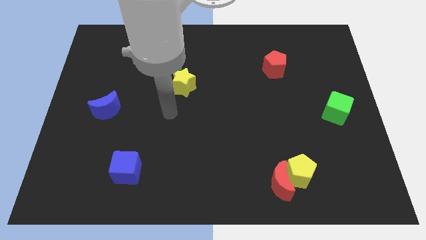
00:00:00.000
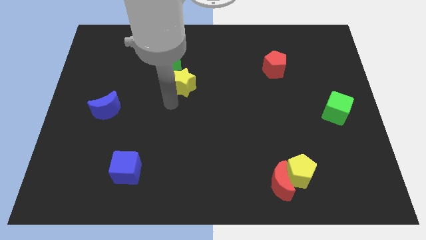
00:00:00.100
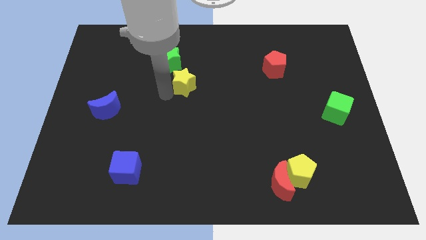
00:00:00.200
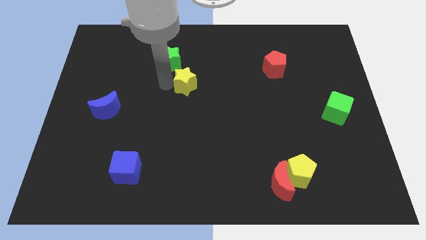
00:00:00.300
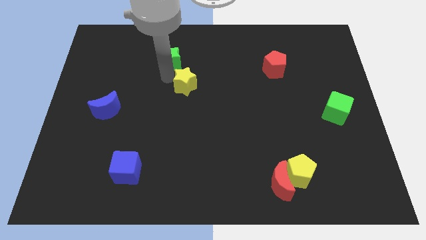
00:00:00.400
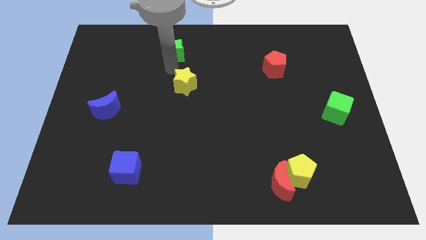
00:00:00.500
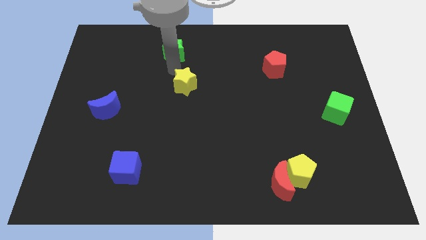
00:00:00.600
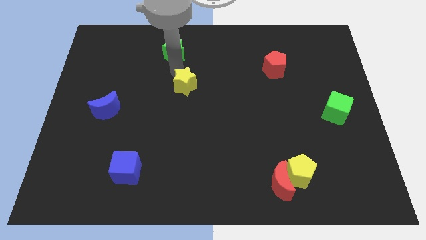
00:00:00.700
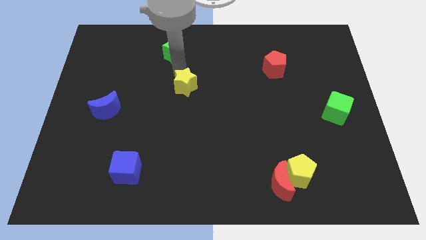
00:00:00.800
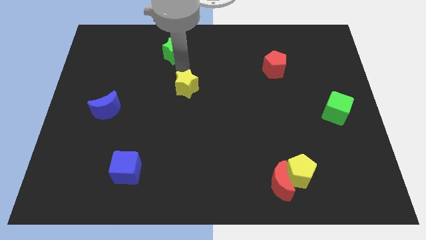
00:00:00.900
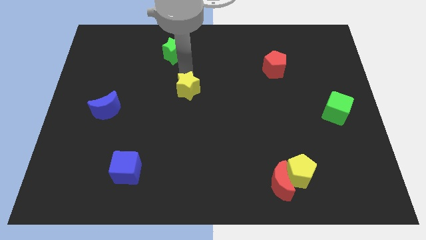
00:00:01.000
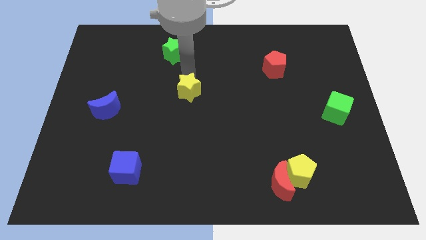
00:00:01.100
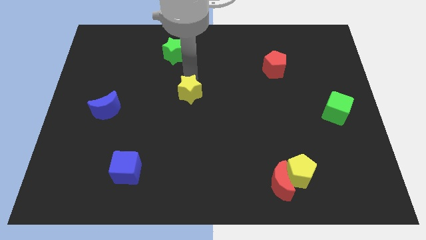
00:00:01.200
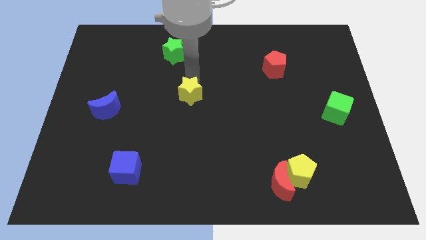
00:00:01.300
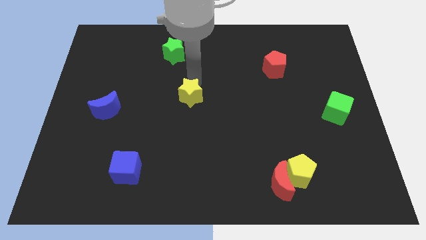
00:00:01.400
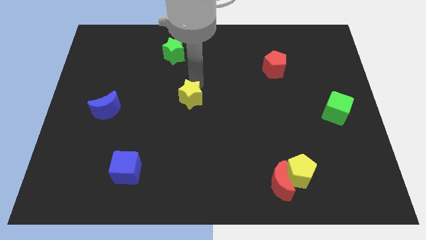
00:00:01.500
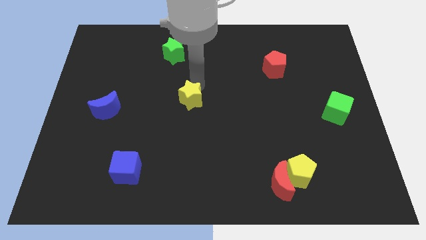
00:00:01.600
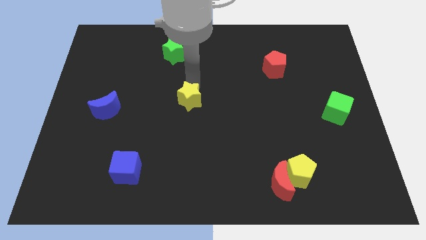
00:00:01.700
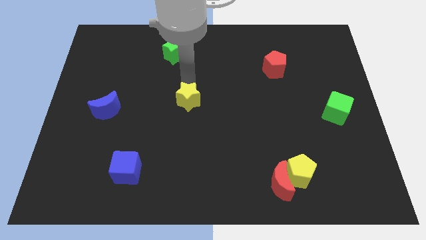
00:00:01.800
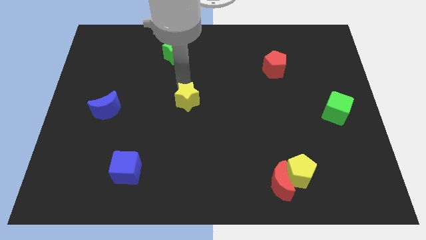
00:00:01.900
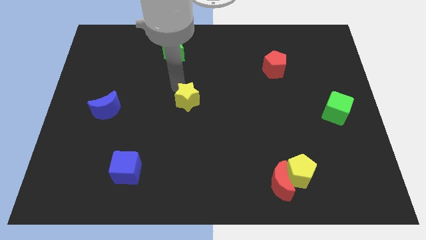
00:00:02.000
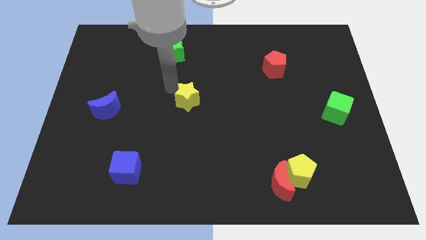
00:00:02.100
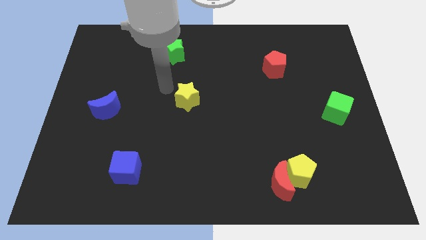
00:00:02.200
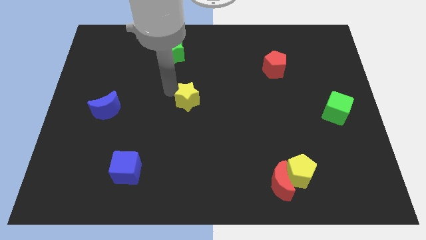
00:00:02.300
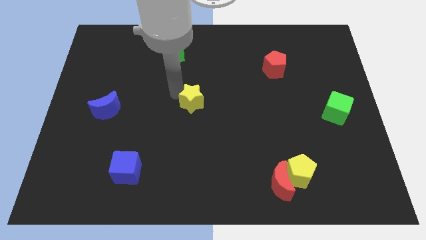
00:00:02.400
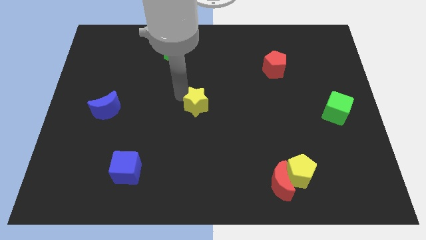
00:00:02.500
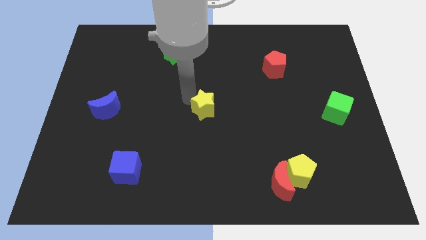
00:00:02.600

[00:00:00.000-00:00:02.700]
slightly slide the yellow star down and right diagonally

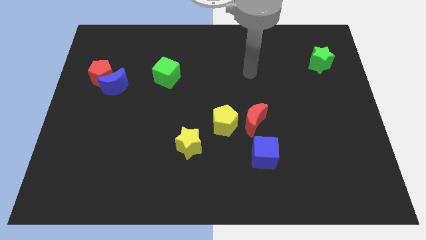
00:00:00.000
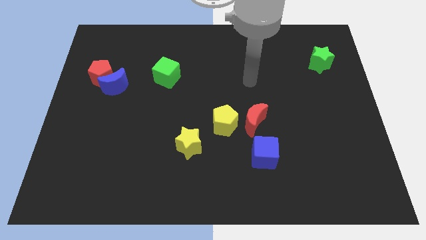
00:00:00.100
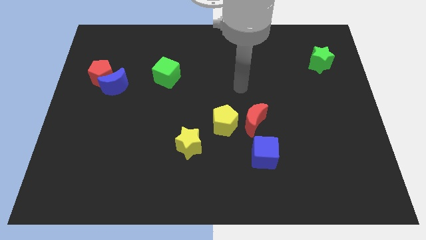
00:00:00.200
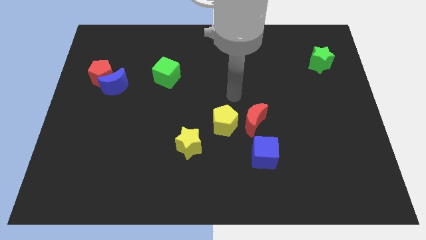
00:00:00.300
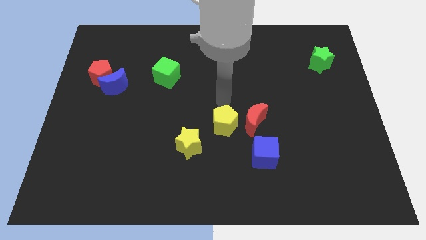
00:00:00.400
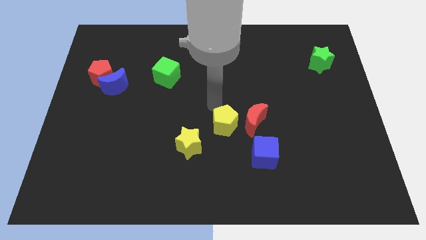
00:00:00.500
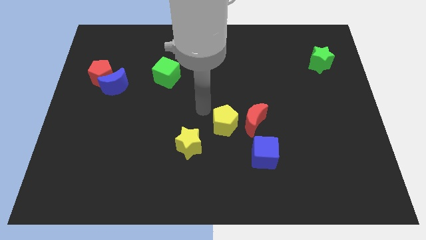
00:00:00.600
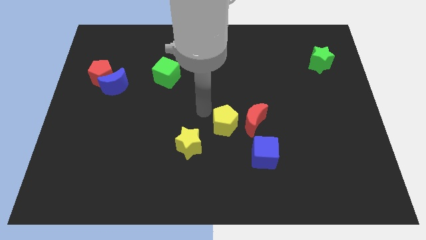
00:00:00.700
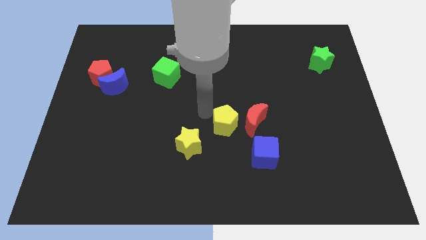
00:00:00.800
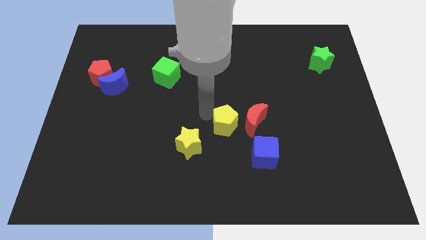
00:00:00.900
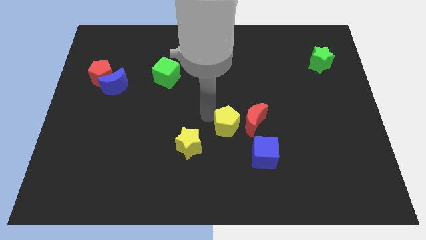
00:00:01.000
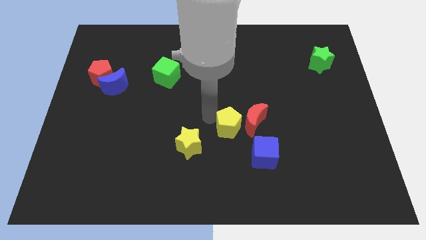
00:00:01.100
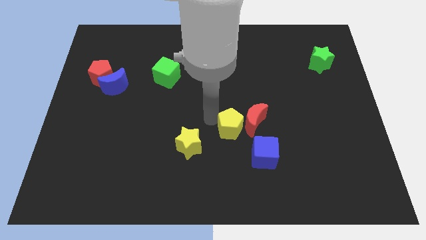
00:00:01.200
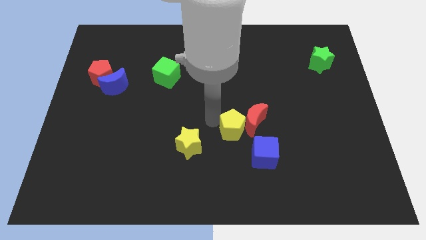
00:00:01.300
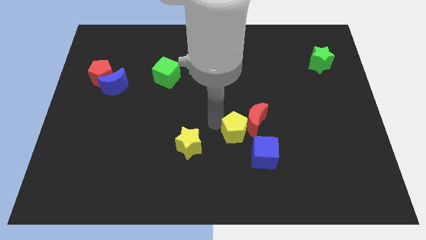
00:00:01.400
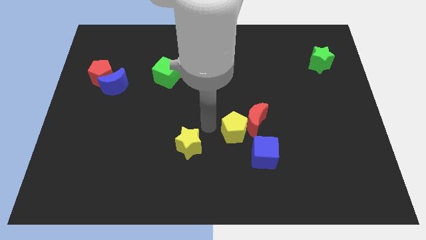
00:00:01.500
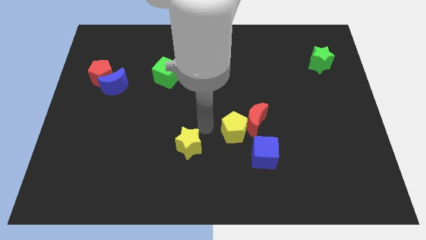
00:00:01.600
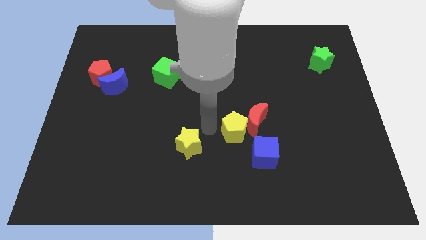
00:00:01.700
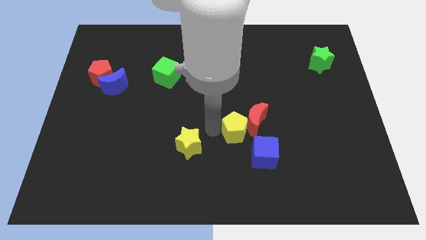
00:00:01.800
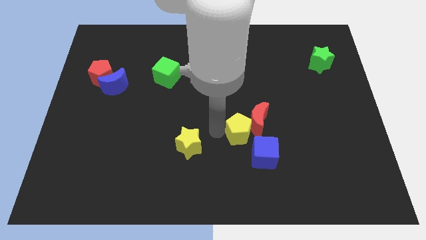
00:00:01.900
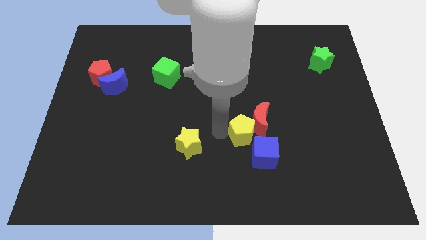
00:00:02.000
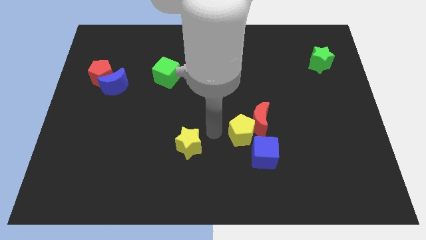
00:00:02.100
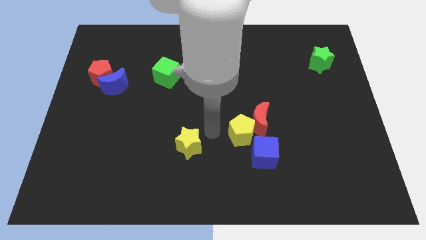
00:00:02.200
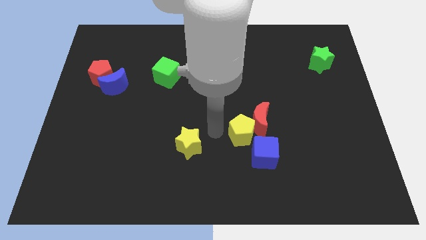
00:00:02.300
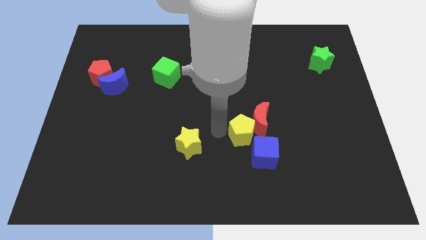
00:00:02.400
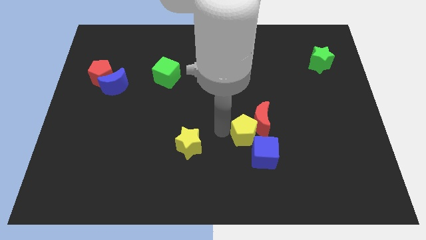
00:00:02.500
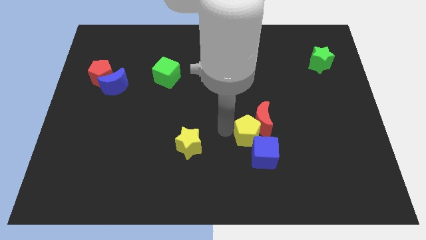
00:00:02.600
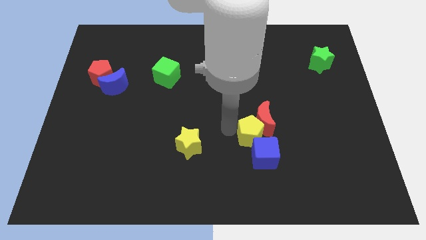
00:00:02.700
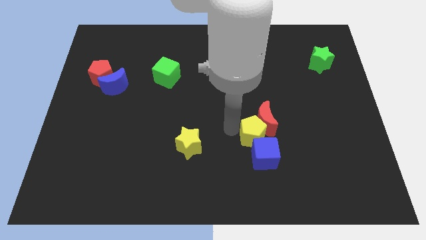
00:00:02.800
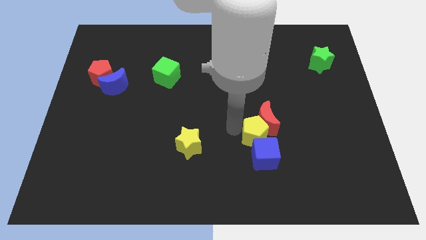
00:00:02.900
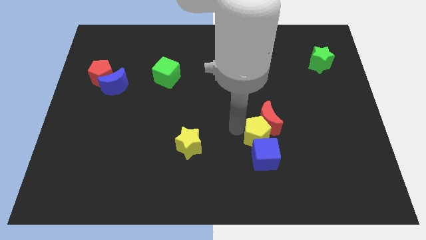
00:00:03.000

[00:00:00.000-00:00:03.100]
slide the yellow pentagon somewhat right

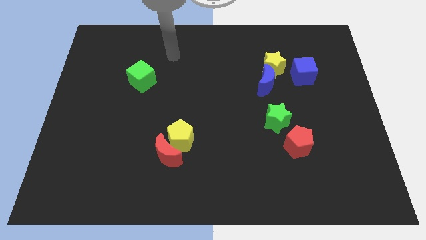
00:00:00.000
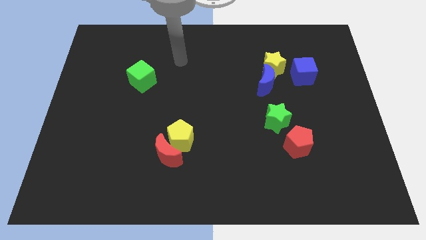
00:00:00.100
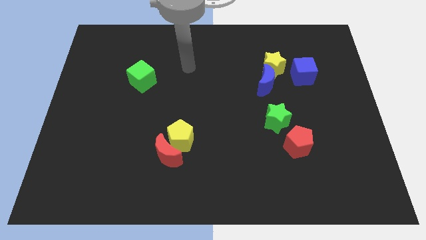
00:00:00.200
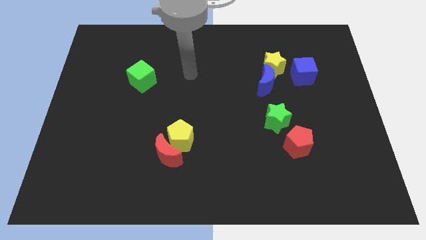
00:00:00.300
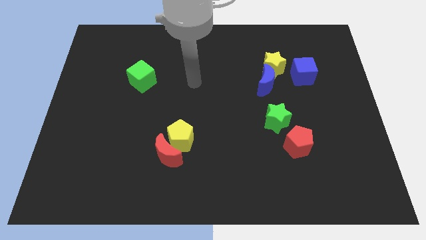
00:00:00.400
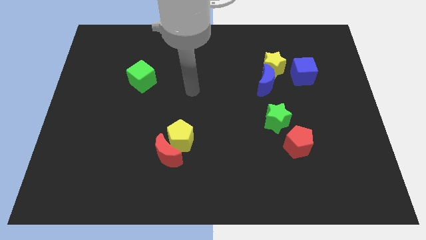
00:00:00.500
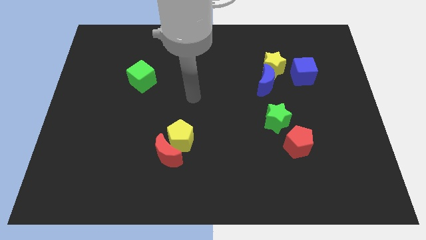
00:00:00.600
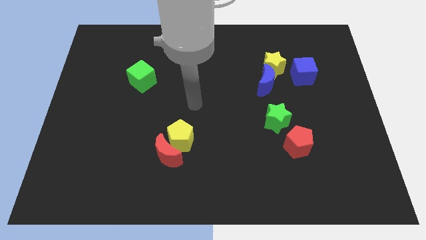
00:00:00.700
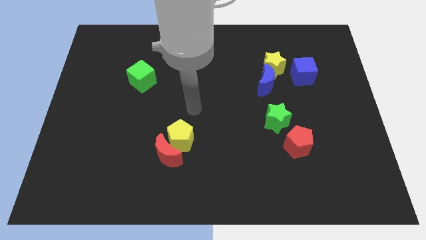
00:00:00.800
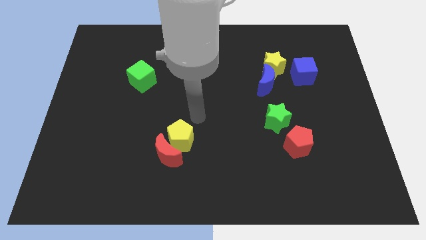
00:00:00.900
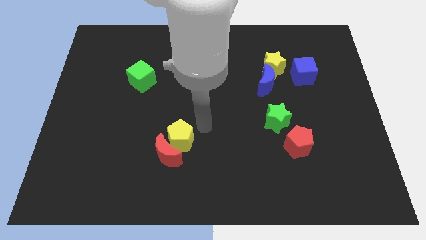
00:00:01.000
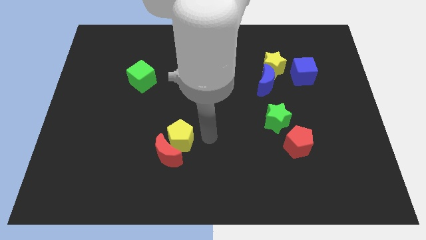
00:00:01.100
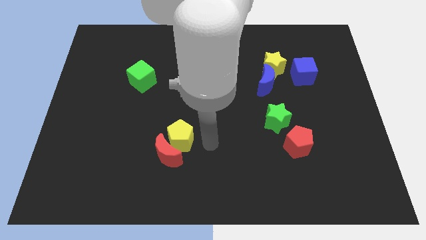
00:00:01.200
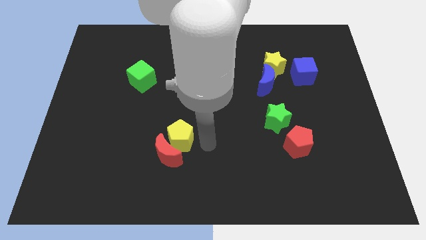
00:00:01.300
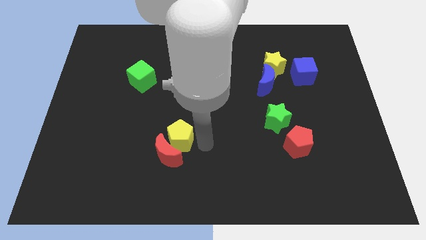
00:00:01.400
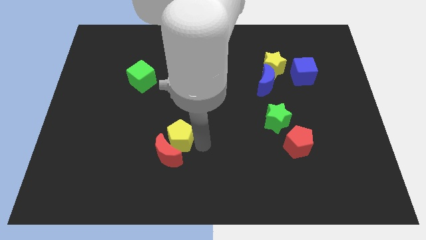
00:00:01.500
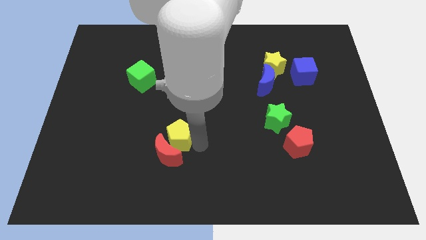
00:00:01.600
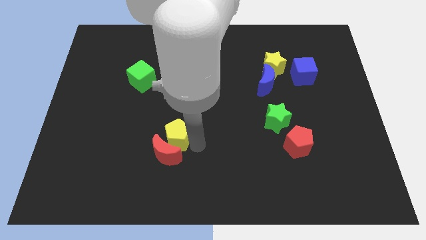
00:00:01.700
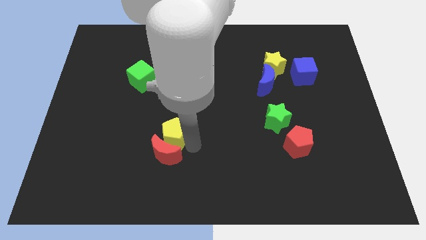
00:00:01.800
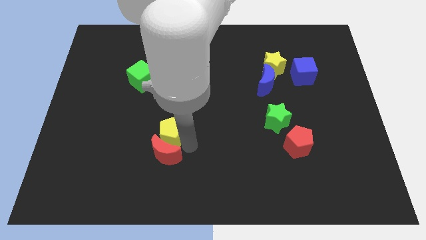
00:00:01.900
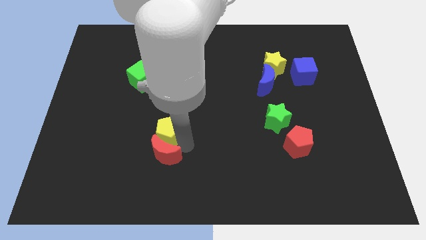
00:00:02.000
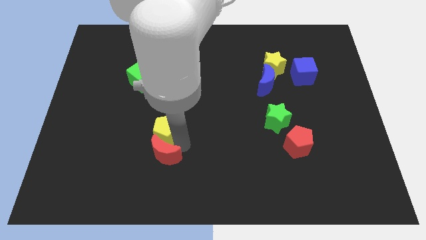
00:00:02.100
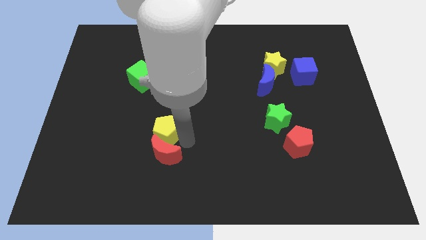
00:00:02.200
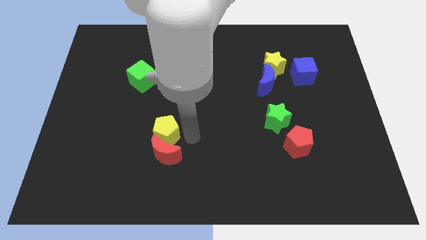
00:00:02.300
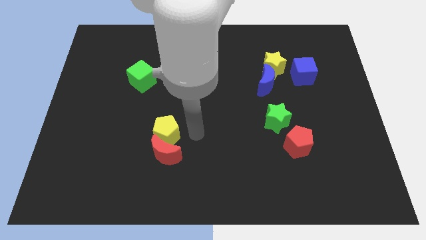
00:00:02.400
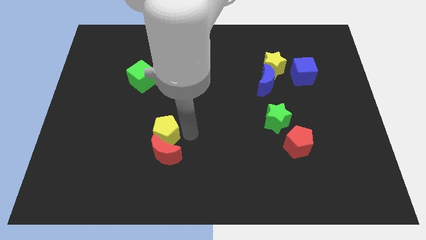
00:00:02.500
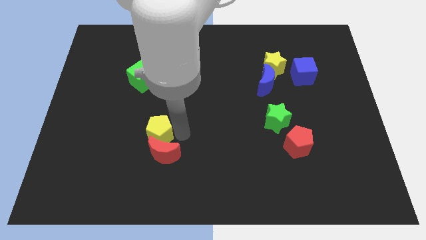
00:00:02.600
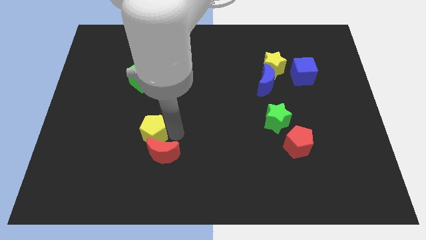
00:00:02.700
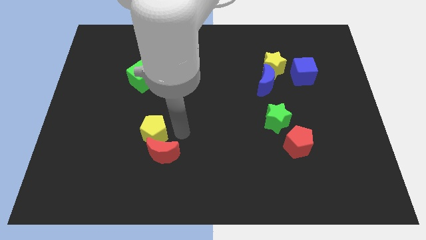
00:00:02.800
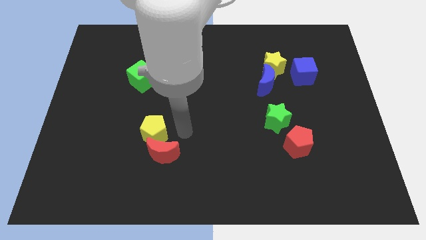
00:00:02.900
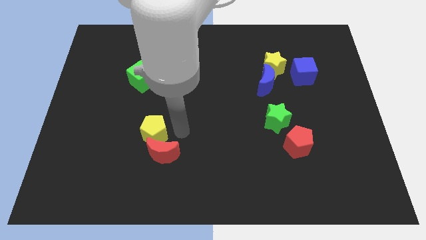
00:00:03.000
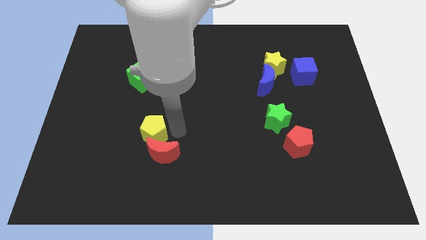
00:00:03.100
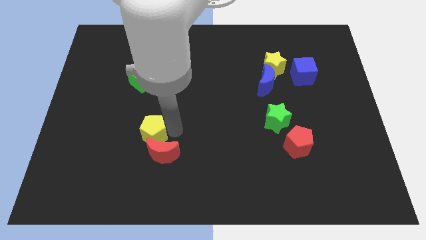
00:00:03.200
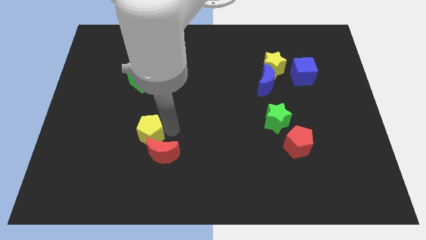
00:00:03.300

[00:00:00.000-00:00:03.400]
move the yellow pentagon to the left a little bit
